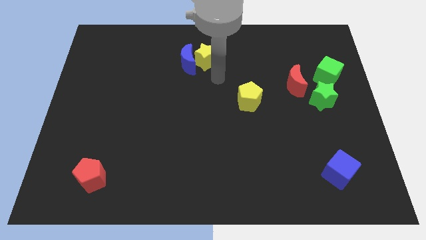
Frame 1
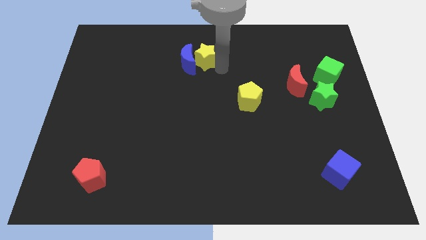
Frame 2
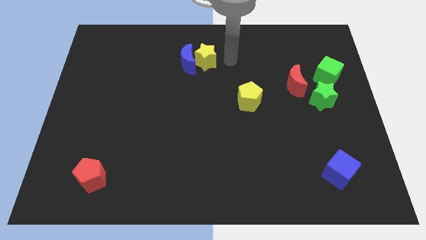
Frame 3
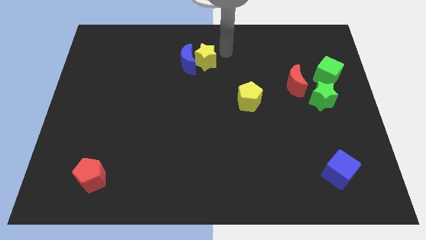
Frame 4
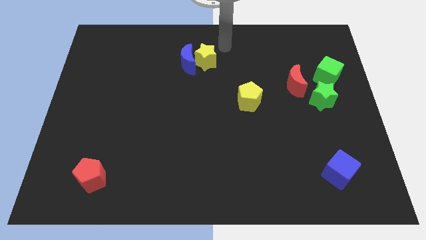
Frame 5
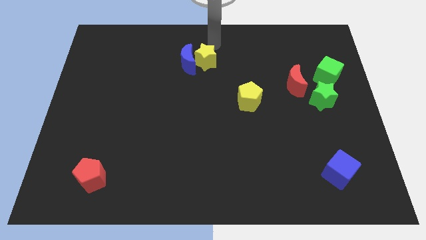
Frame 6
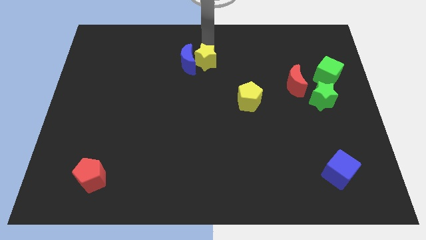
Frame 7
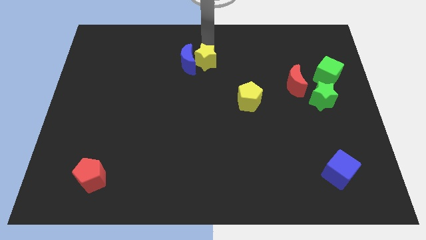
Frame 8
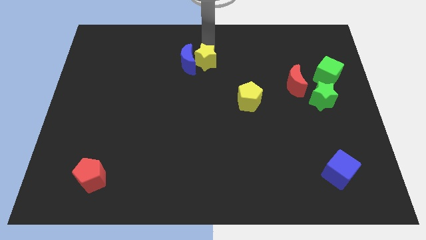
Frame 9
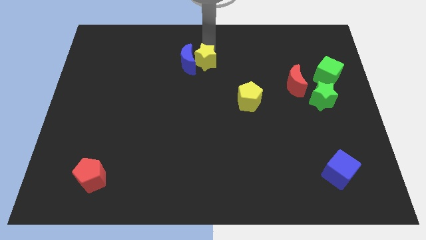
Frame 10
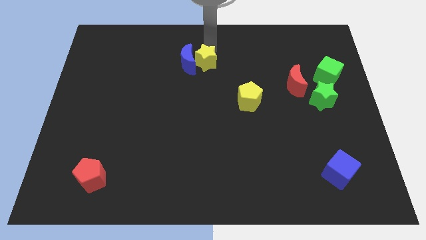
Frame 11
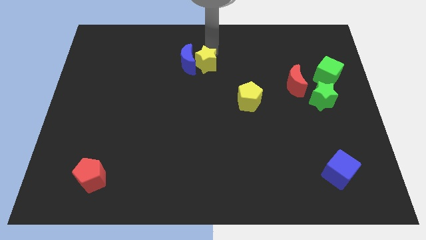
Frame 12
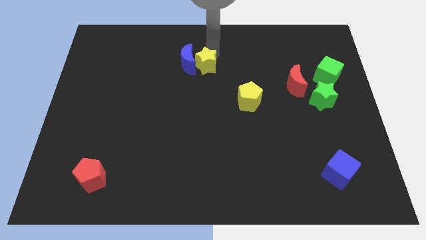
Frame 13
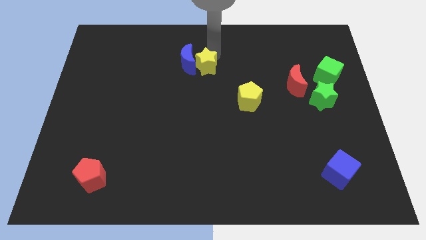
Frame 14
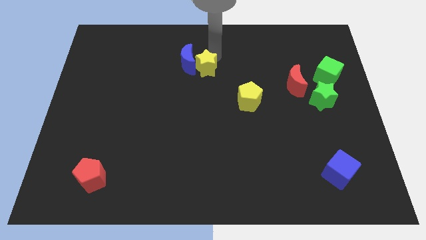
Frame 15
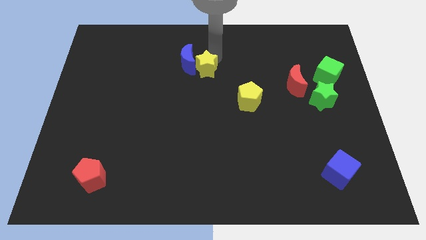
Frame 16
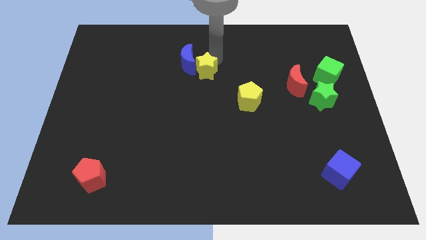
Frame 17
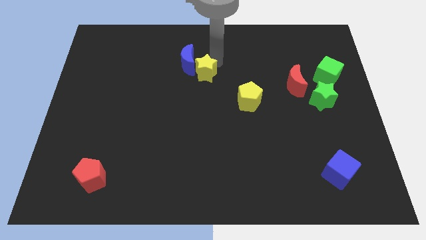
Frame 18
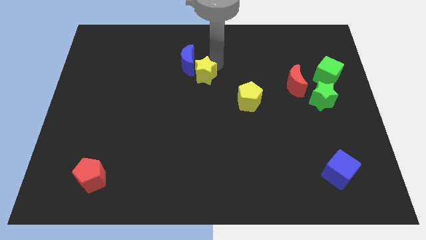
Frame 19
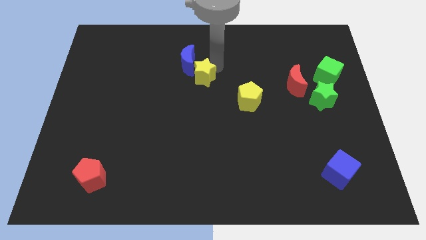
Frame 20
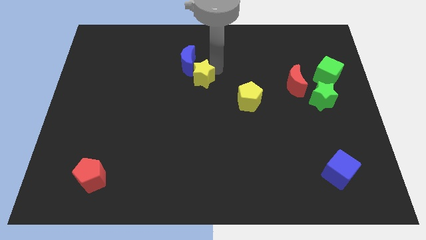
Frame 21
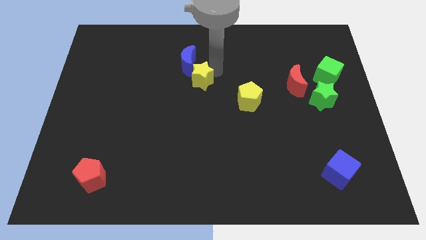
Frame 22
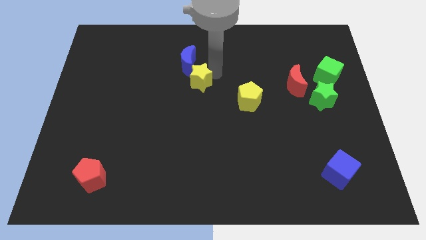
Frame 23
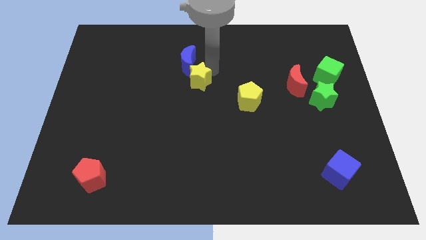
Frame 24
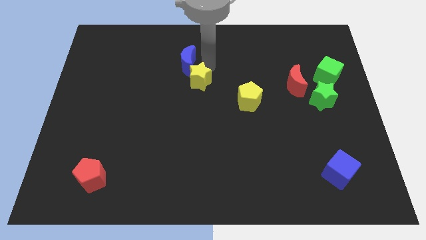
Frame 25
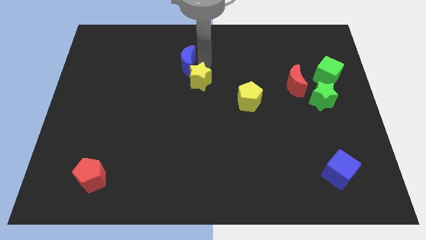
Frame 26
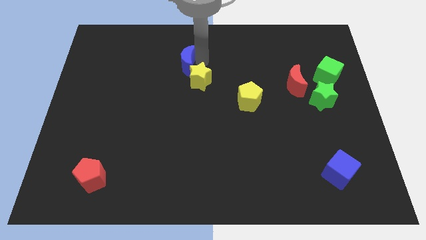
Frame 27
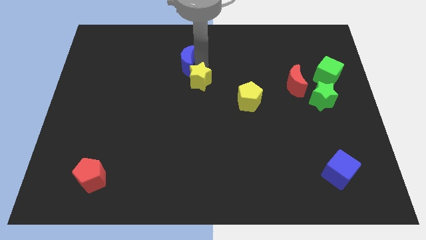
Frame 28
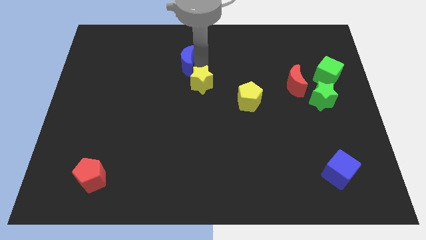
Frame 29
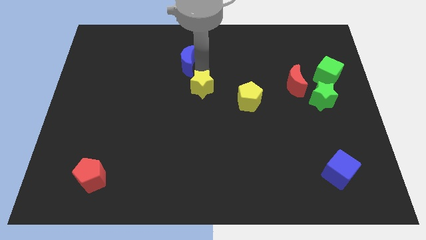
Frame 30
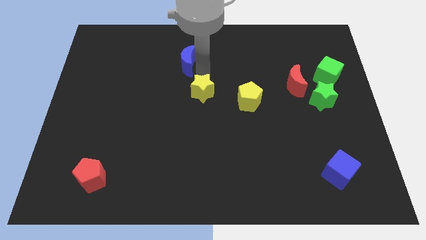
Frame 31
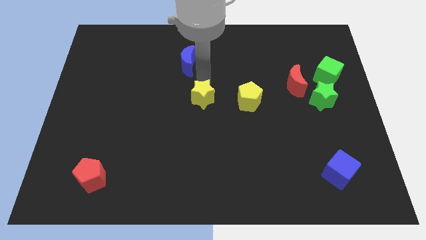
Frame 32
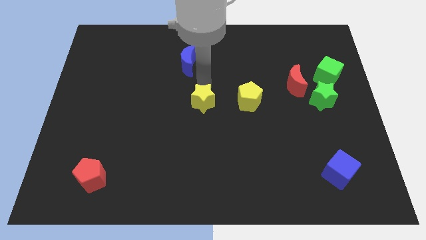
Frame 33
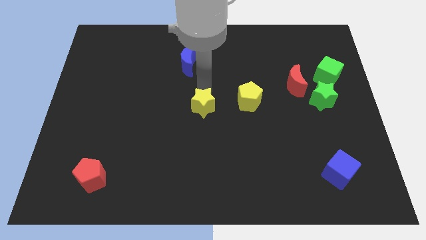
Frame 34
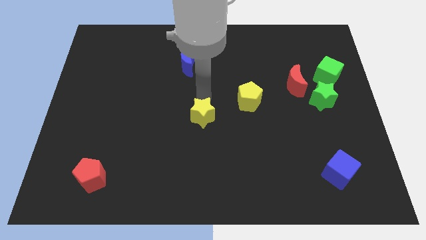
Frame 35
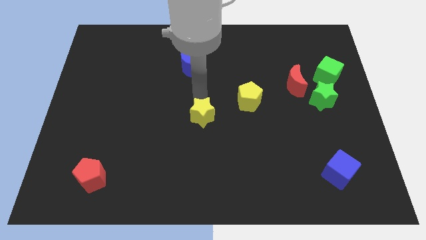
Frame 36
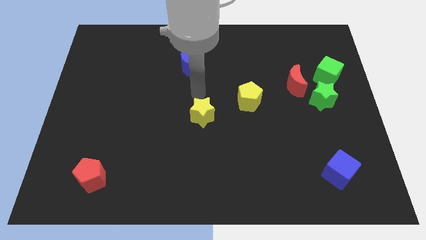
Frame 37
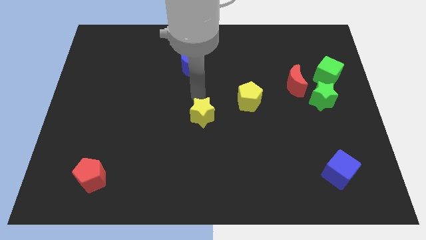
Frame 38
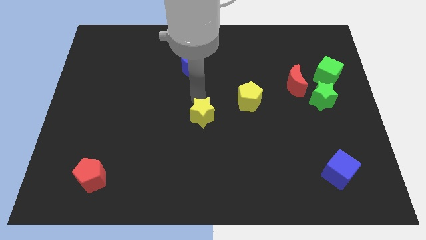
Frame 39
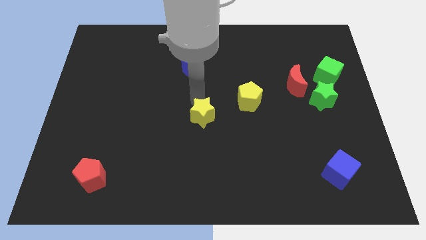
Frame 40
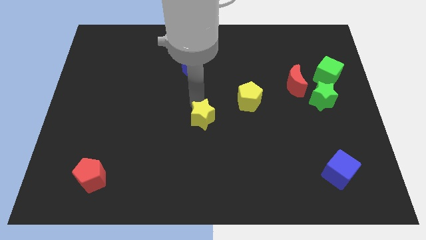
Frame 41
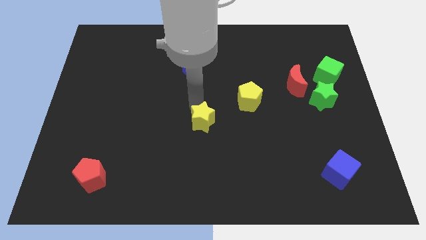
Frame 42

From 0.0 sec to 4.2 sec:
move the yellow star down

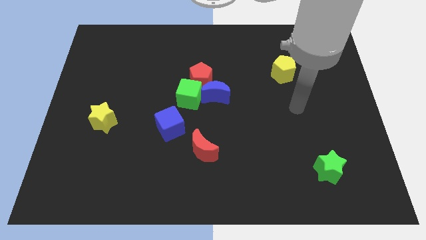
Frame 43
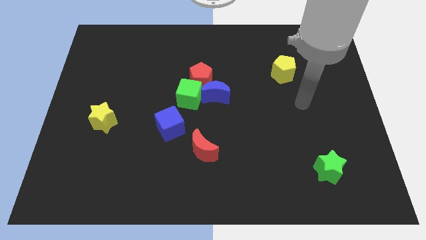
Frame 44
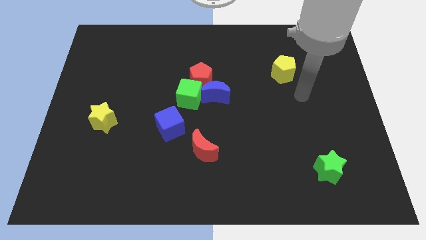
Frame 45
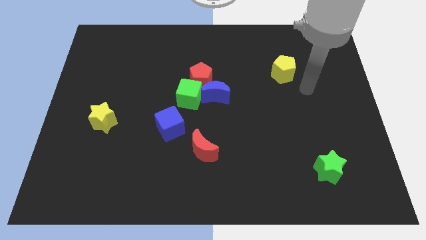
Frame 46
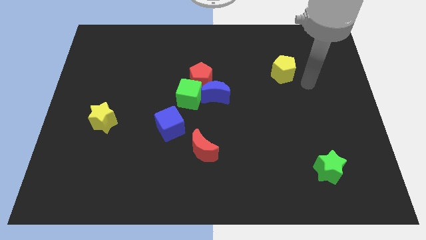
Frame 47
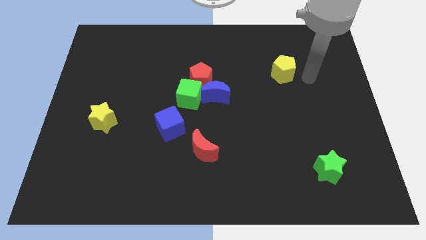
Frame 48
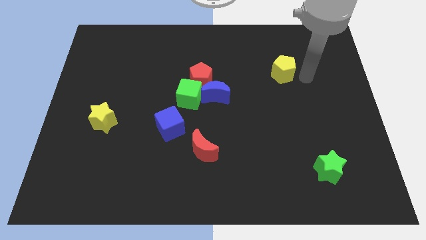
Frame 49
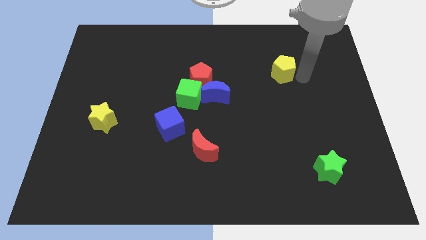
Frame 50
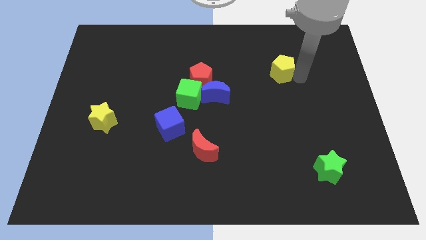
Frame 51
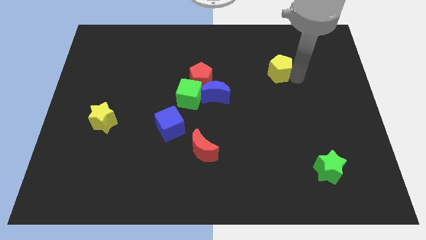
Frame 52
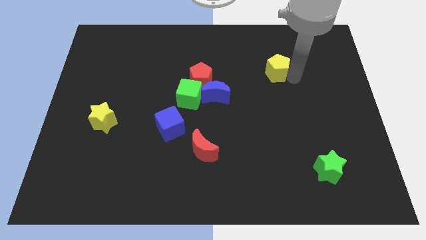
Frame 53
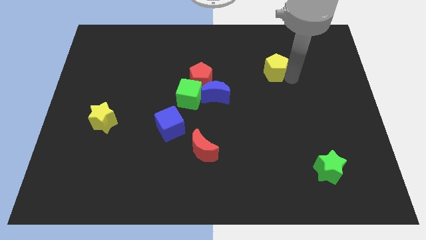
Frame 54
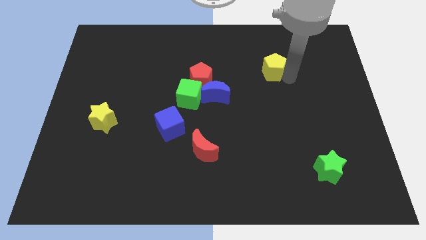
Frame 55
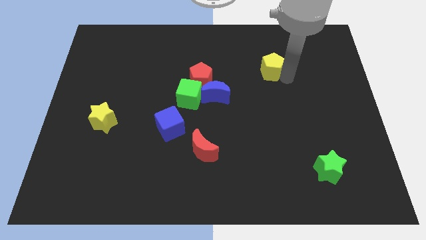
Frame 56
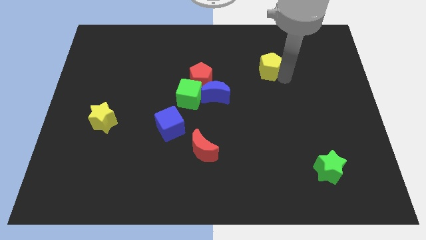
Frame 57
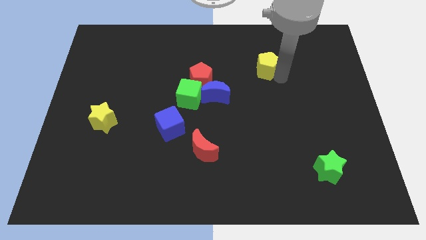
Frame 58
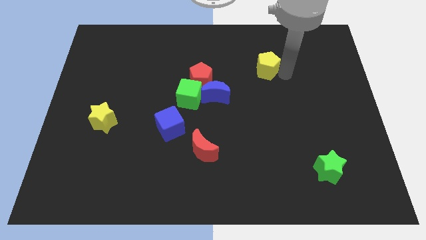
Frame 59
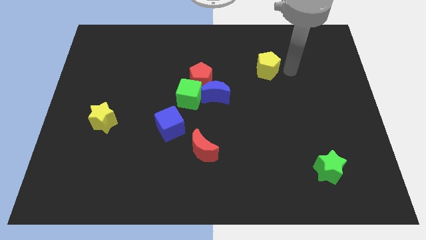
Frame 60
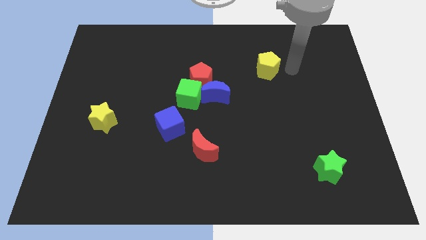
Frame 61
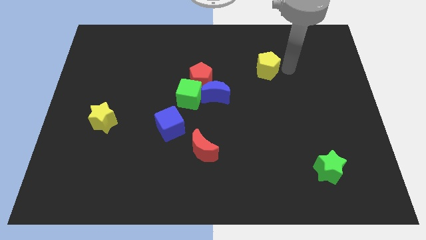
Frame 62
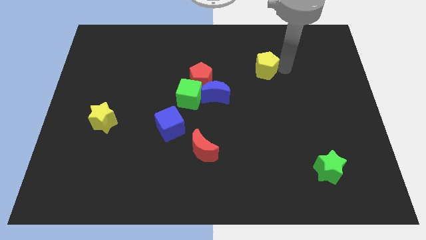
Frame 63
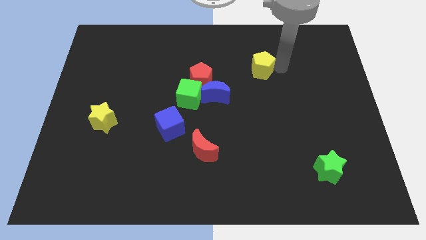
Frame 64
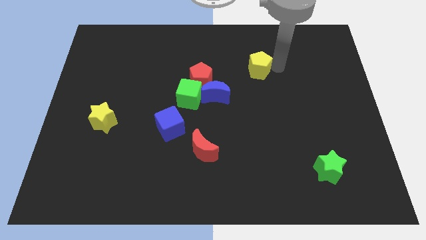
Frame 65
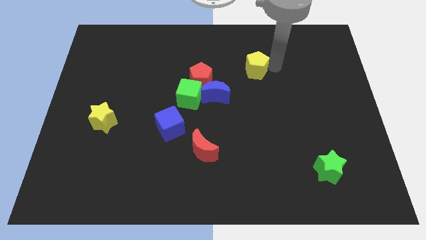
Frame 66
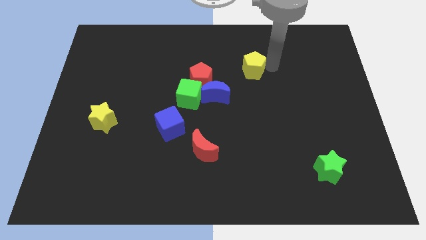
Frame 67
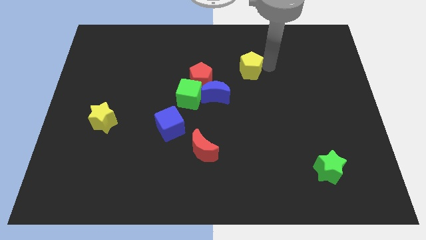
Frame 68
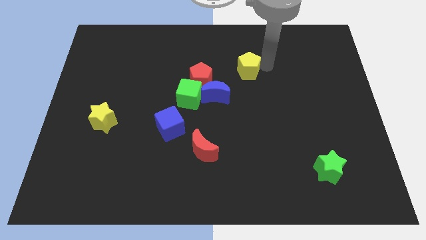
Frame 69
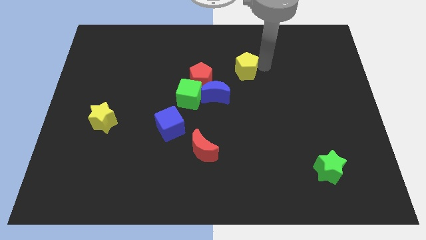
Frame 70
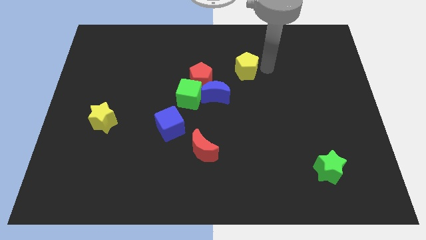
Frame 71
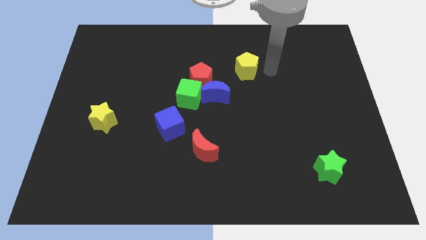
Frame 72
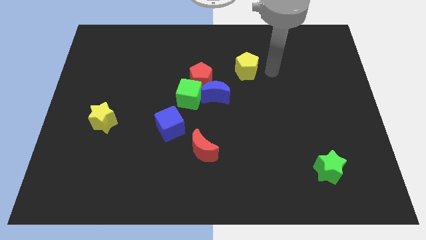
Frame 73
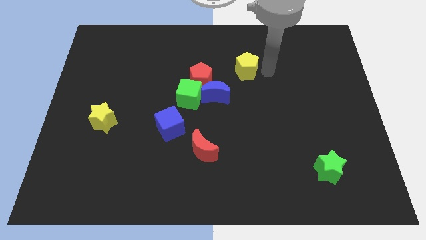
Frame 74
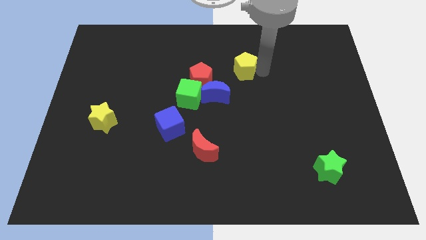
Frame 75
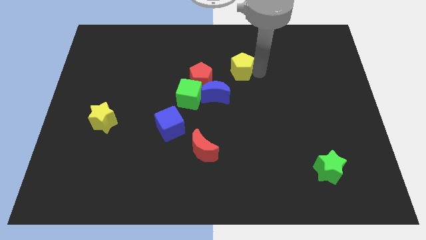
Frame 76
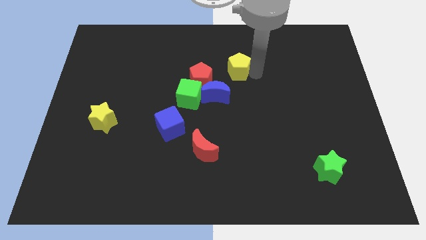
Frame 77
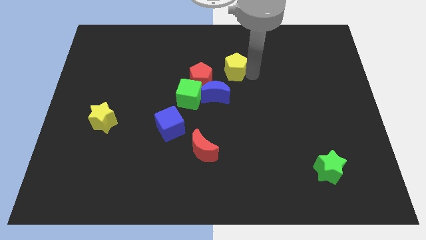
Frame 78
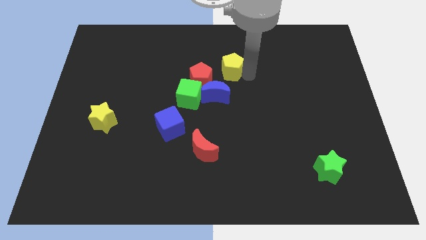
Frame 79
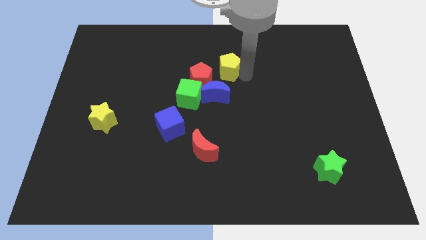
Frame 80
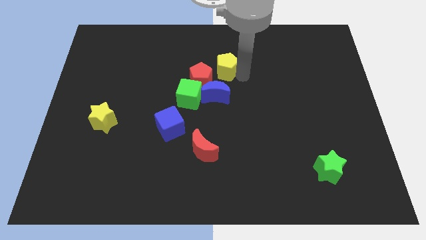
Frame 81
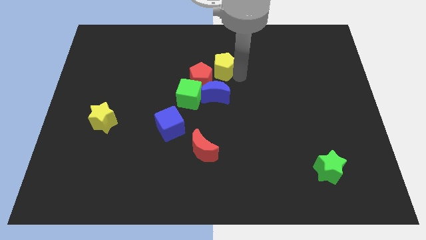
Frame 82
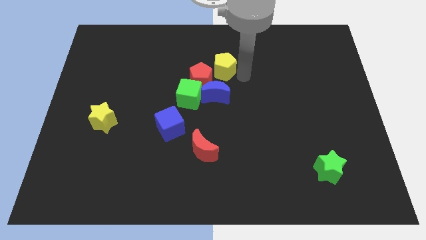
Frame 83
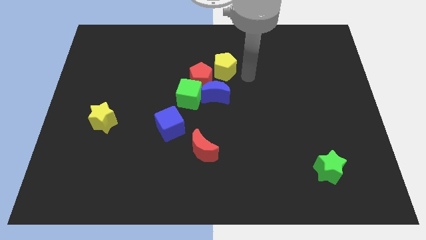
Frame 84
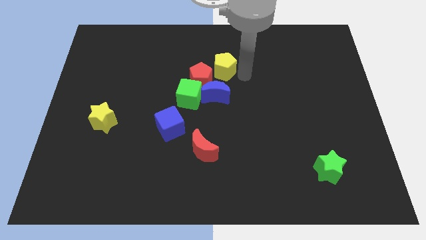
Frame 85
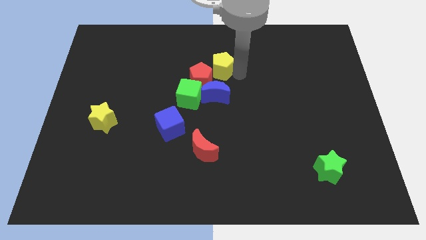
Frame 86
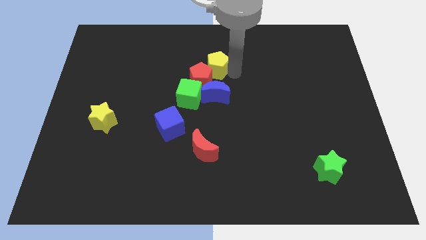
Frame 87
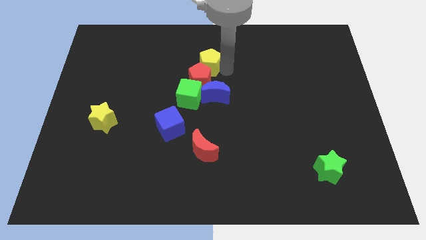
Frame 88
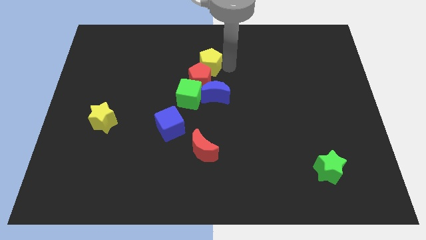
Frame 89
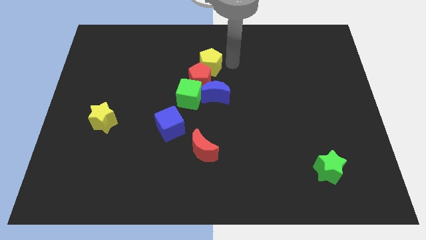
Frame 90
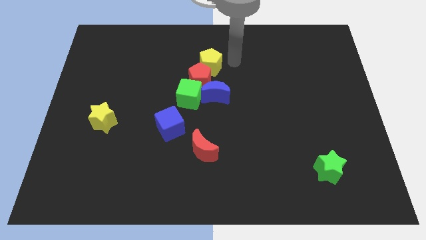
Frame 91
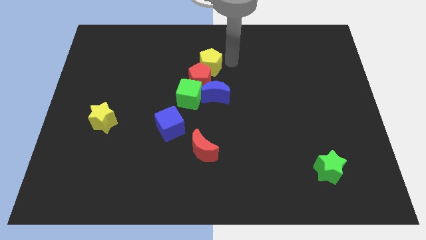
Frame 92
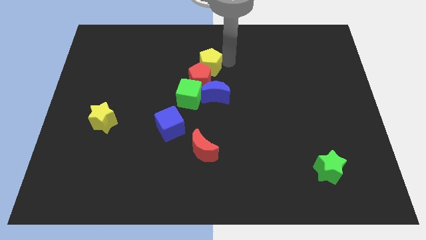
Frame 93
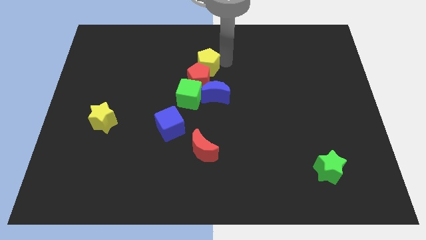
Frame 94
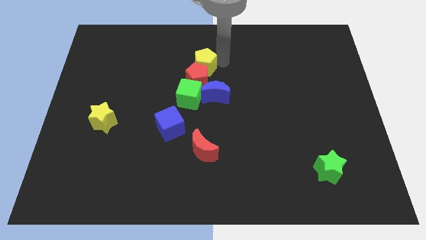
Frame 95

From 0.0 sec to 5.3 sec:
move the yellow pentagon left
